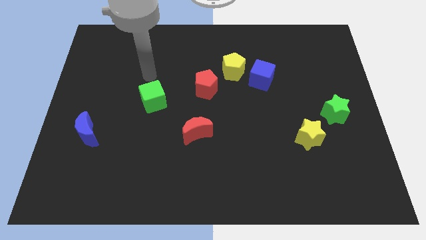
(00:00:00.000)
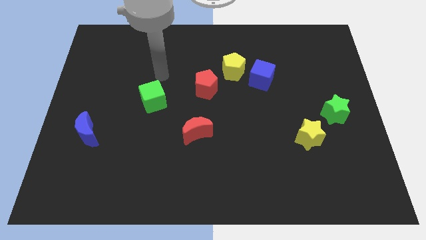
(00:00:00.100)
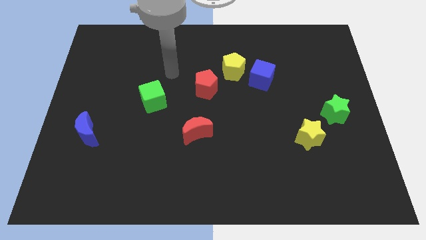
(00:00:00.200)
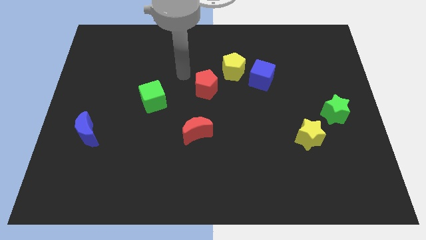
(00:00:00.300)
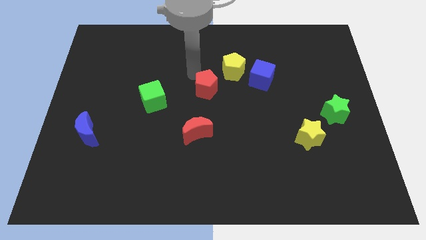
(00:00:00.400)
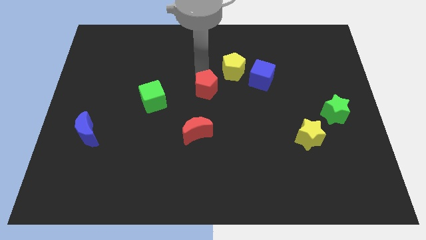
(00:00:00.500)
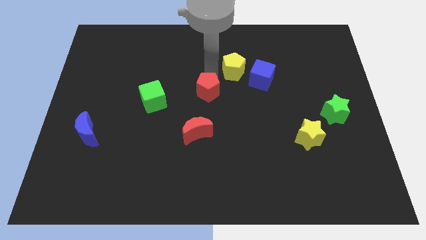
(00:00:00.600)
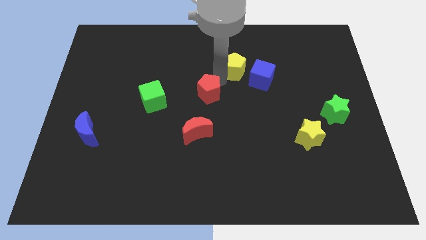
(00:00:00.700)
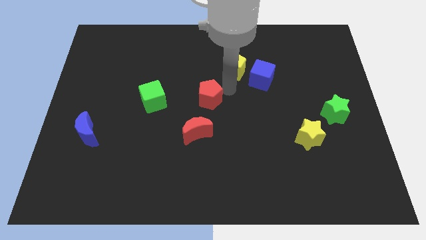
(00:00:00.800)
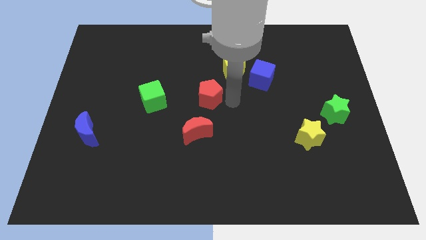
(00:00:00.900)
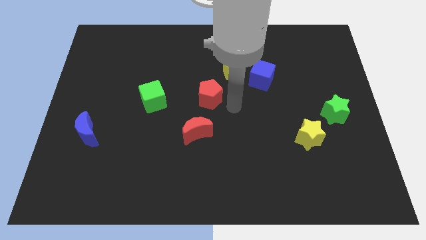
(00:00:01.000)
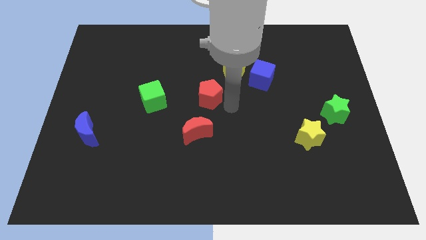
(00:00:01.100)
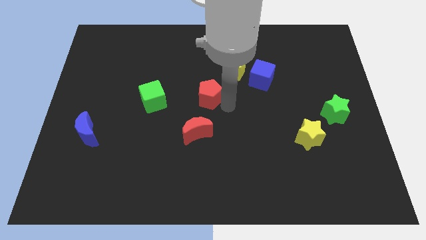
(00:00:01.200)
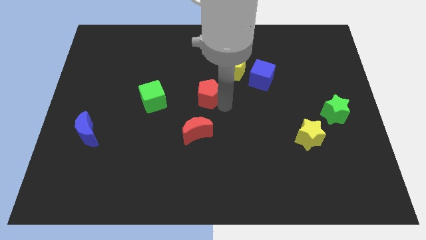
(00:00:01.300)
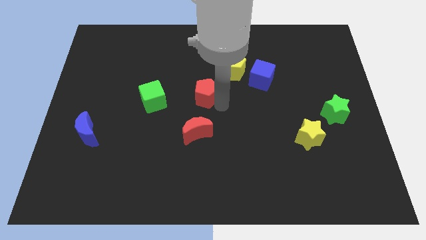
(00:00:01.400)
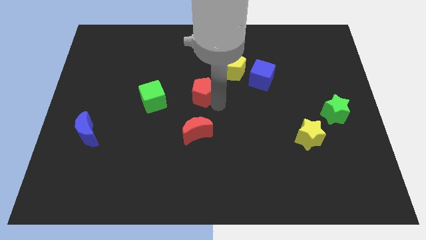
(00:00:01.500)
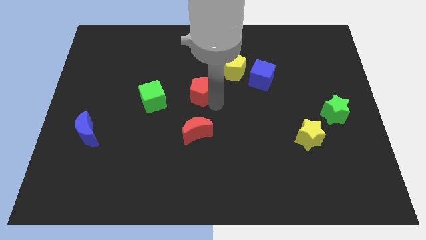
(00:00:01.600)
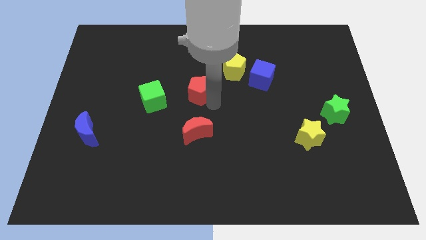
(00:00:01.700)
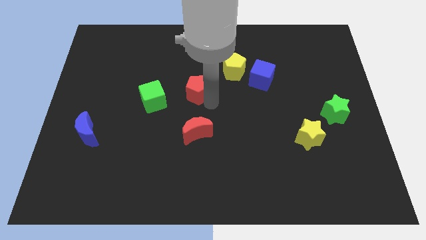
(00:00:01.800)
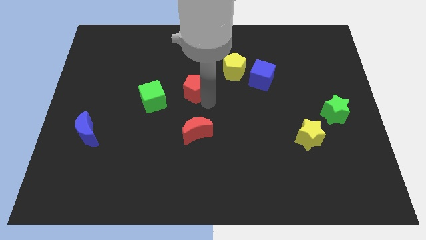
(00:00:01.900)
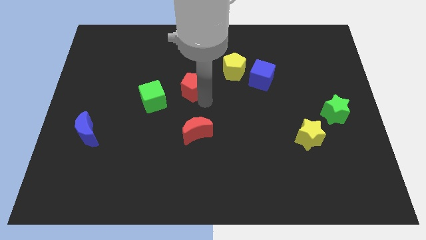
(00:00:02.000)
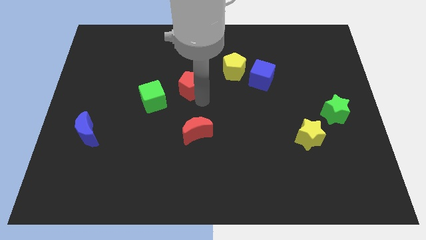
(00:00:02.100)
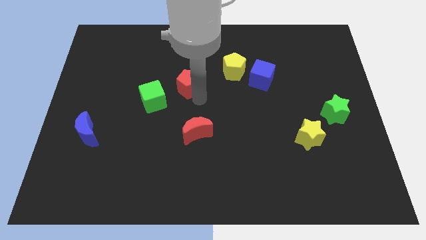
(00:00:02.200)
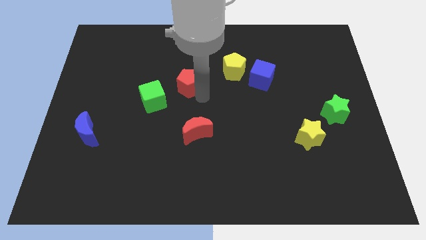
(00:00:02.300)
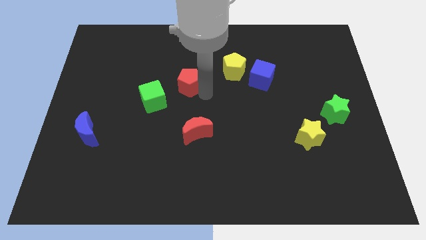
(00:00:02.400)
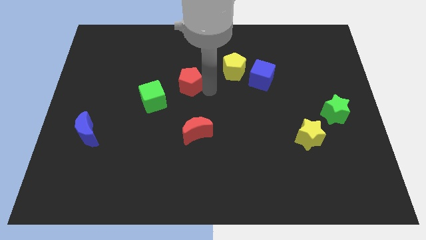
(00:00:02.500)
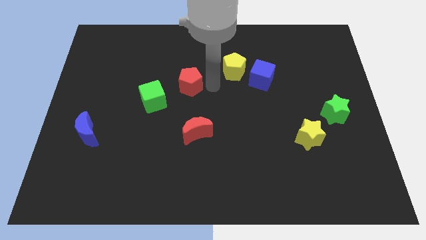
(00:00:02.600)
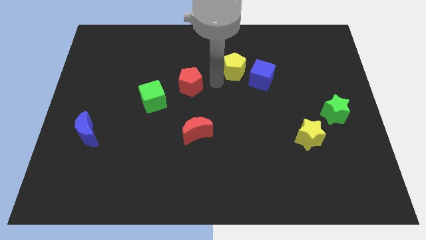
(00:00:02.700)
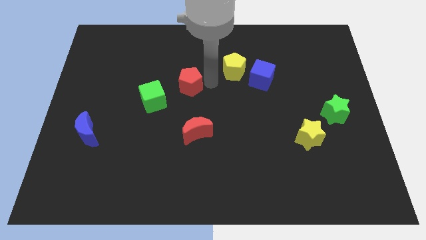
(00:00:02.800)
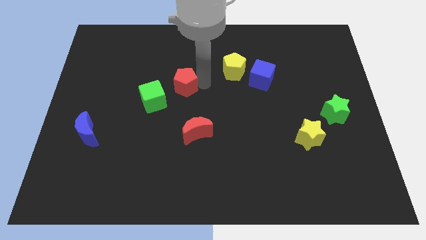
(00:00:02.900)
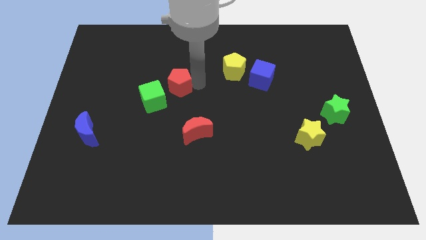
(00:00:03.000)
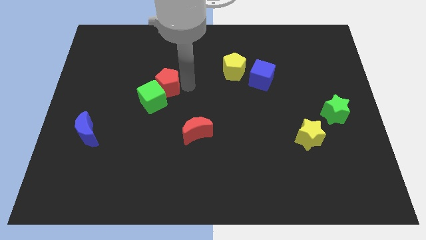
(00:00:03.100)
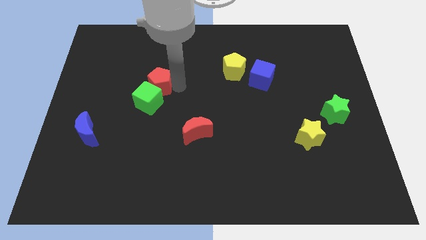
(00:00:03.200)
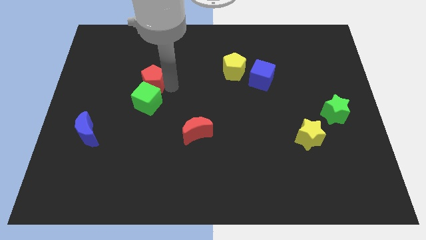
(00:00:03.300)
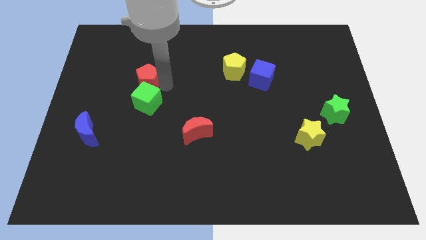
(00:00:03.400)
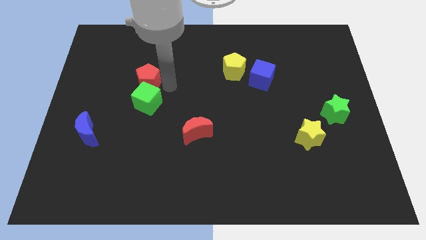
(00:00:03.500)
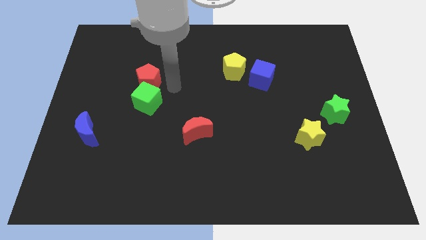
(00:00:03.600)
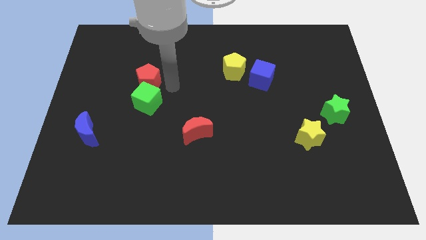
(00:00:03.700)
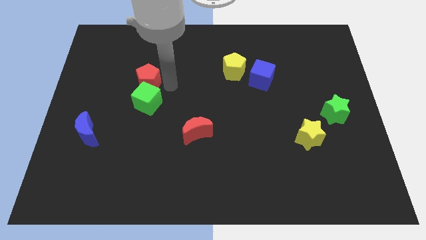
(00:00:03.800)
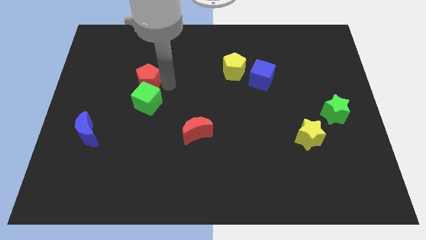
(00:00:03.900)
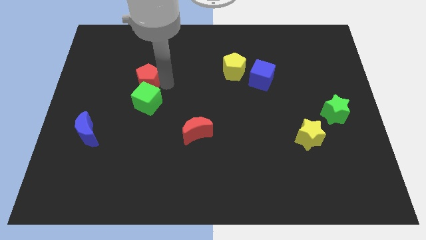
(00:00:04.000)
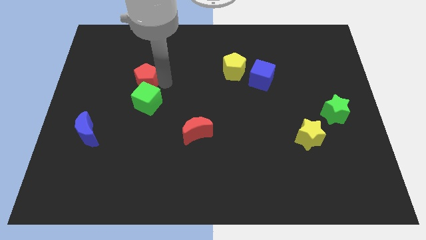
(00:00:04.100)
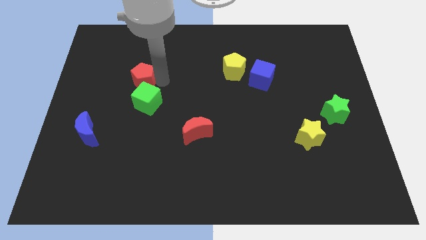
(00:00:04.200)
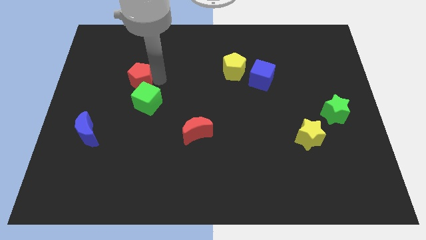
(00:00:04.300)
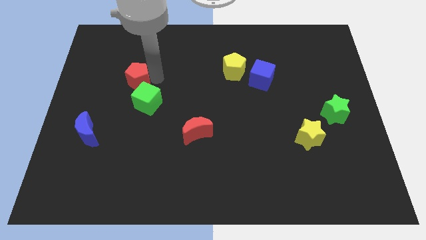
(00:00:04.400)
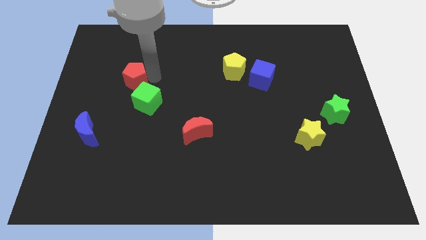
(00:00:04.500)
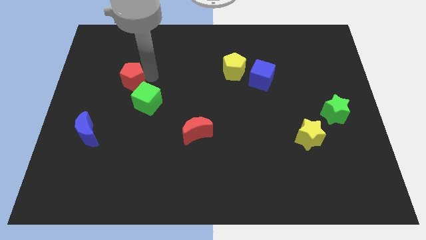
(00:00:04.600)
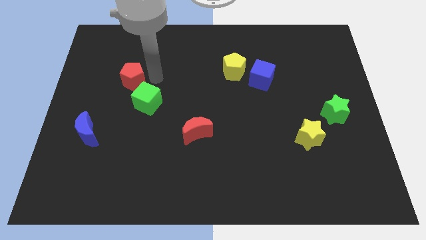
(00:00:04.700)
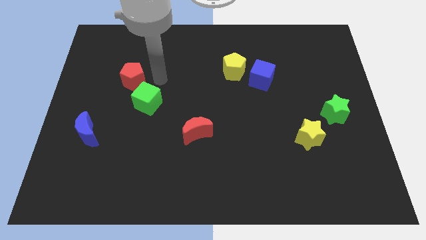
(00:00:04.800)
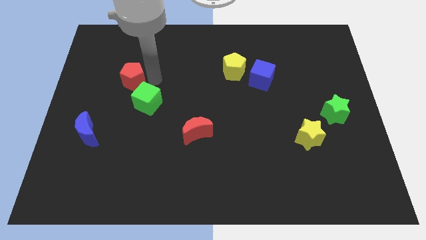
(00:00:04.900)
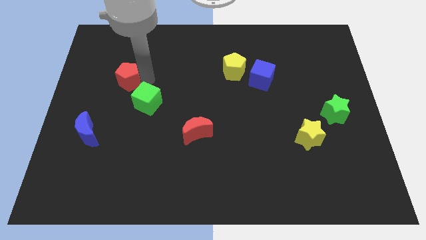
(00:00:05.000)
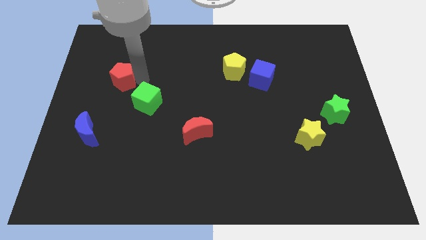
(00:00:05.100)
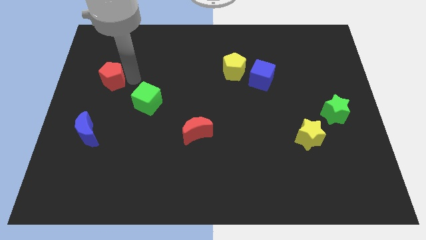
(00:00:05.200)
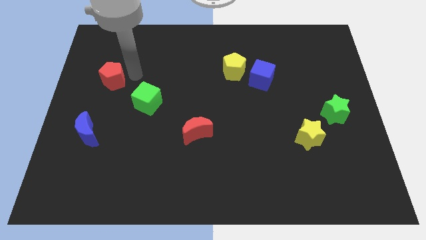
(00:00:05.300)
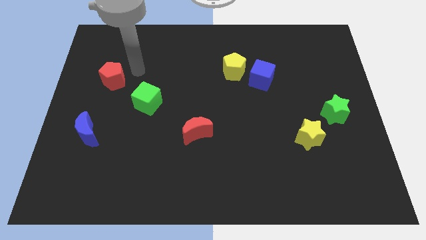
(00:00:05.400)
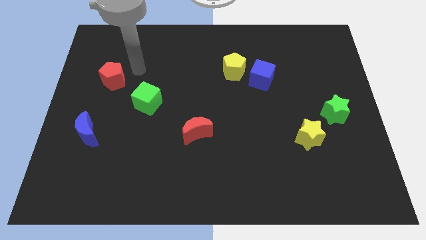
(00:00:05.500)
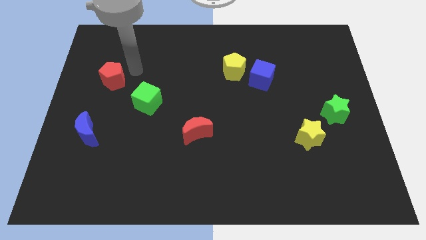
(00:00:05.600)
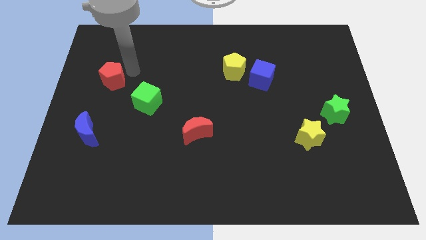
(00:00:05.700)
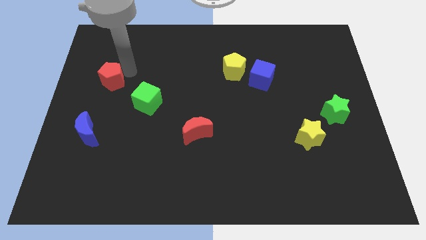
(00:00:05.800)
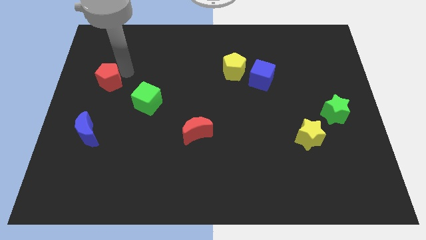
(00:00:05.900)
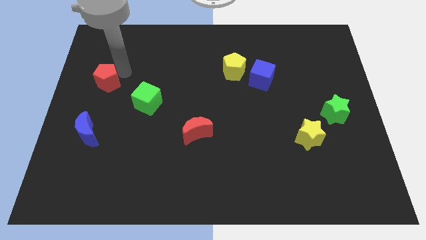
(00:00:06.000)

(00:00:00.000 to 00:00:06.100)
put the red pentagon to the left side of the board
